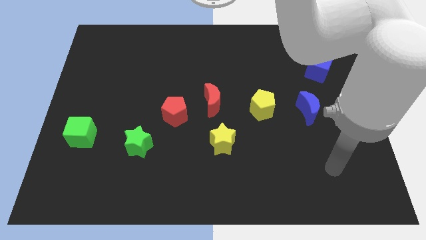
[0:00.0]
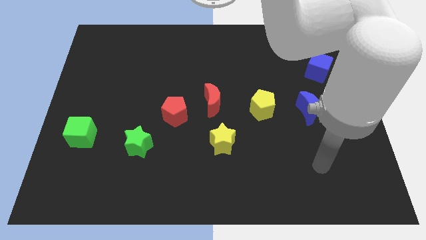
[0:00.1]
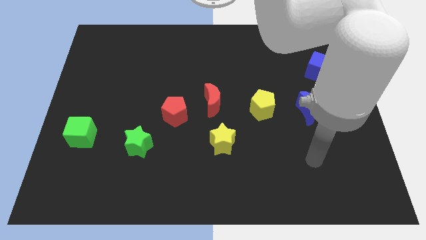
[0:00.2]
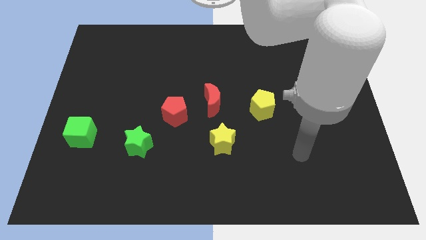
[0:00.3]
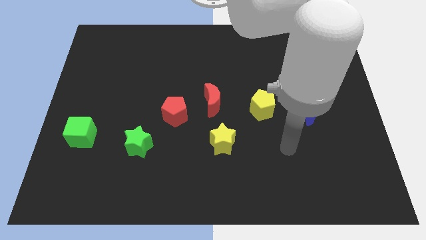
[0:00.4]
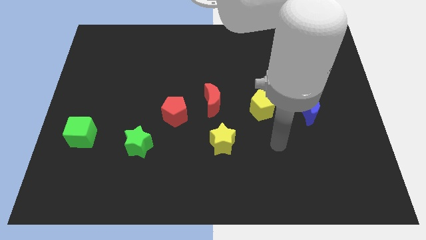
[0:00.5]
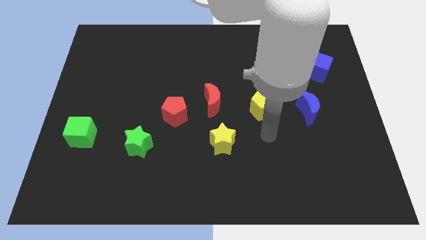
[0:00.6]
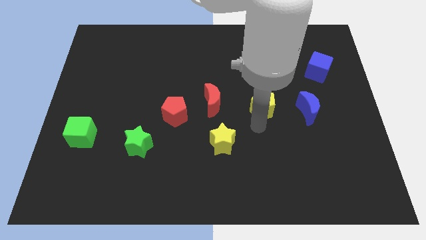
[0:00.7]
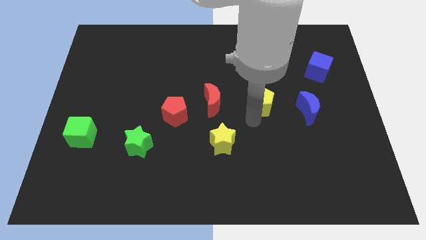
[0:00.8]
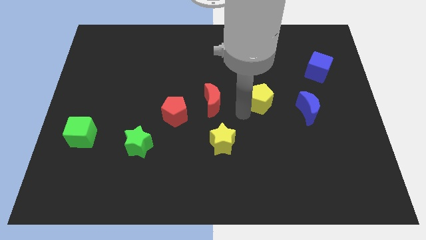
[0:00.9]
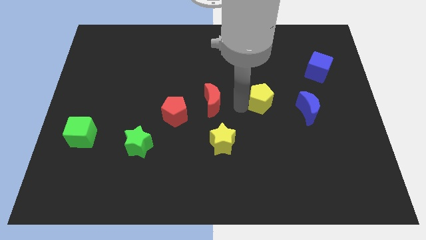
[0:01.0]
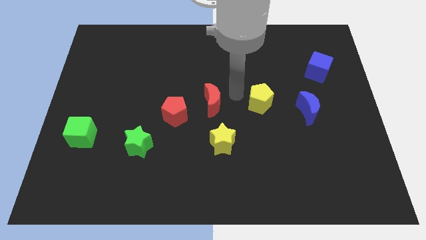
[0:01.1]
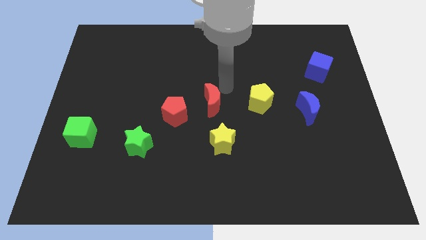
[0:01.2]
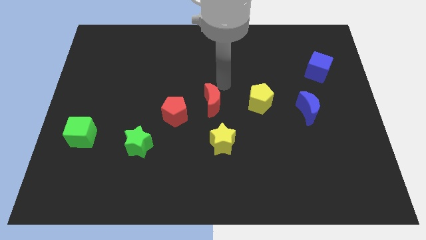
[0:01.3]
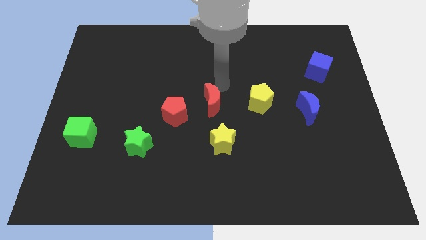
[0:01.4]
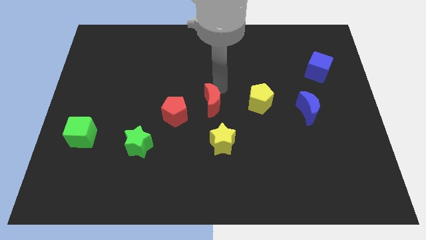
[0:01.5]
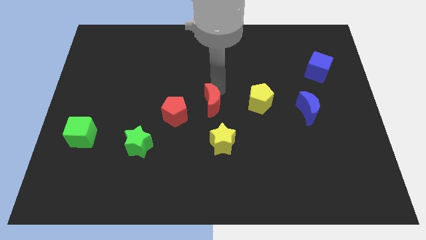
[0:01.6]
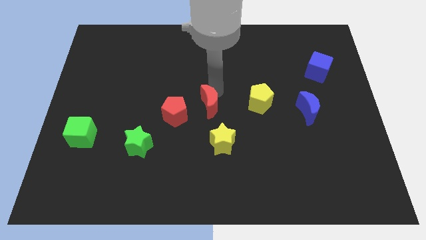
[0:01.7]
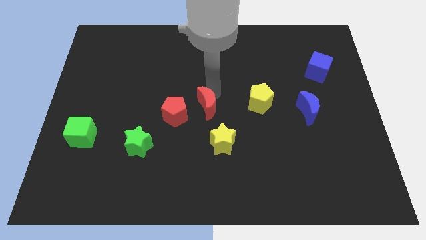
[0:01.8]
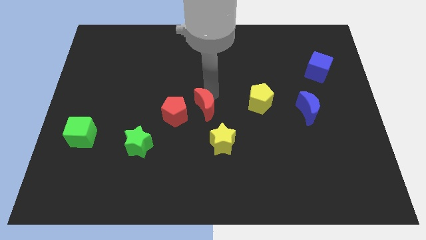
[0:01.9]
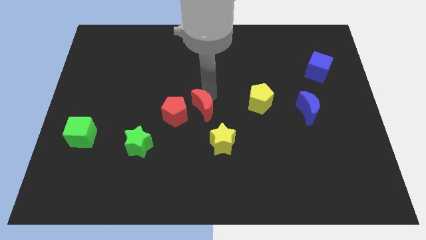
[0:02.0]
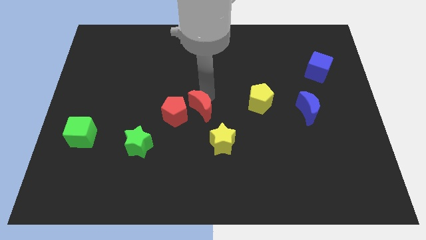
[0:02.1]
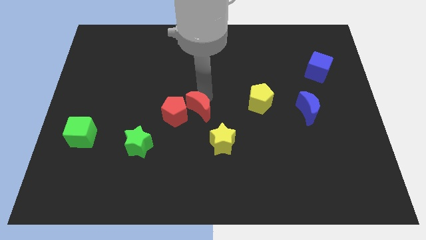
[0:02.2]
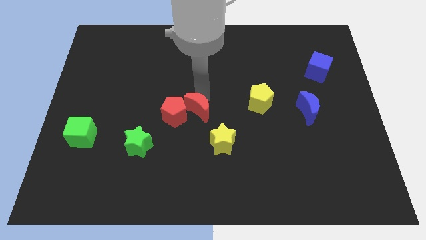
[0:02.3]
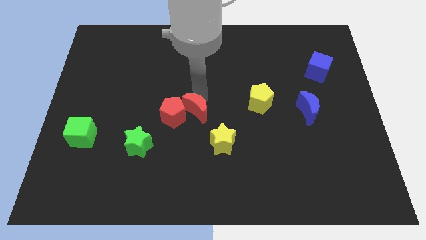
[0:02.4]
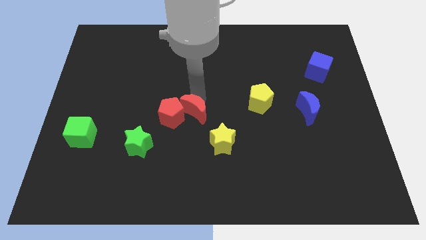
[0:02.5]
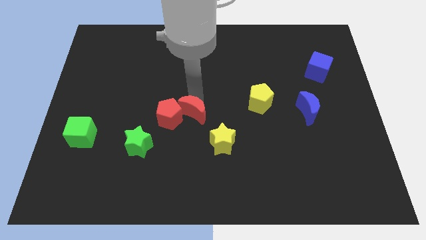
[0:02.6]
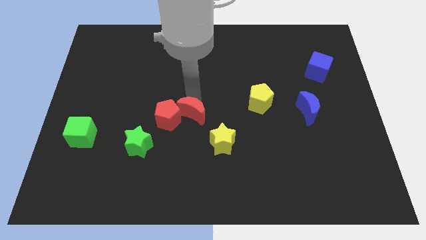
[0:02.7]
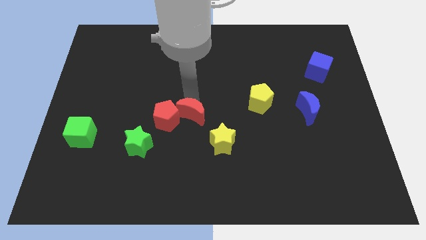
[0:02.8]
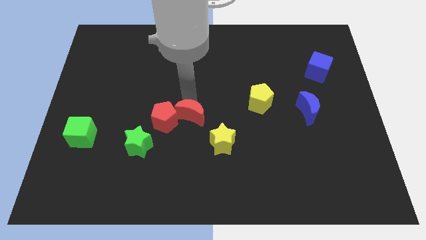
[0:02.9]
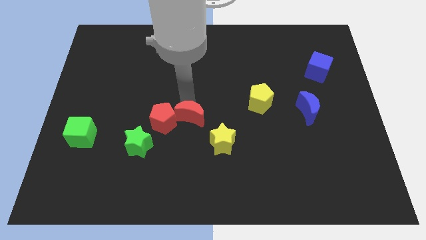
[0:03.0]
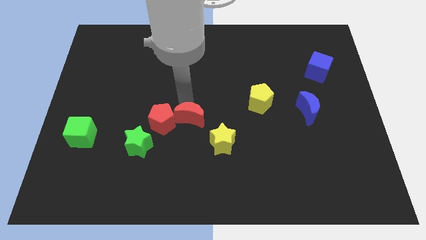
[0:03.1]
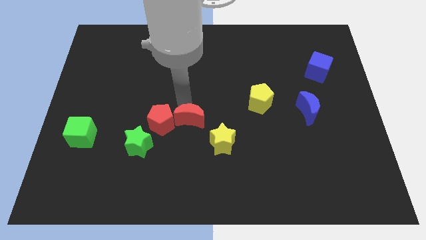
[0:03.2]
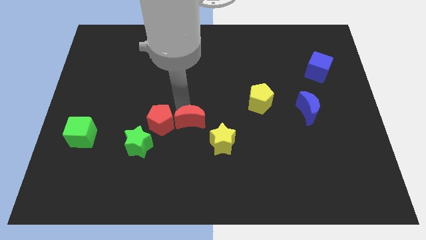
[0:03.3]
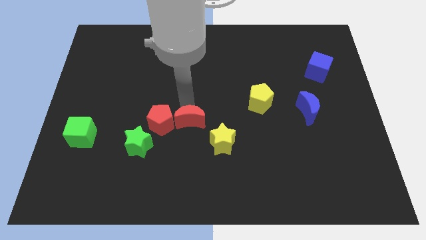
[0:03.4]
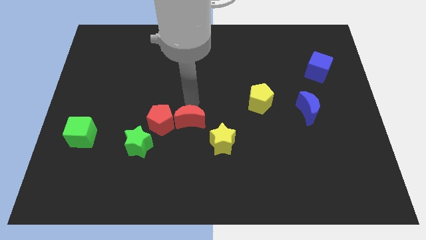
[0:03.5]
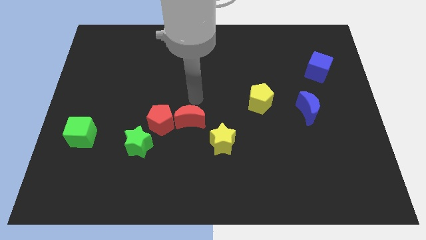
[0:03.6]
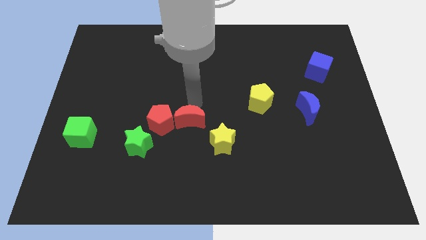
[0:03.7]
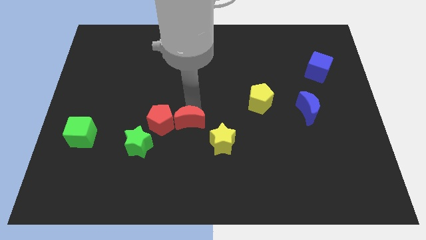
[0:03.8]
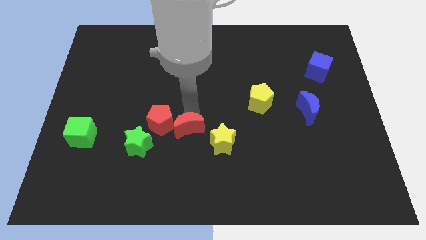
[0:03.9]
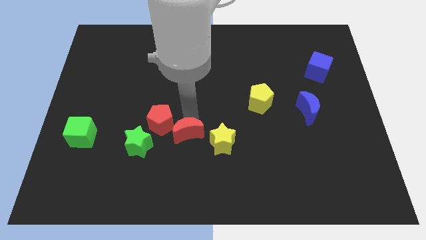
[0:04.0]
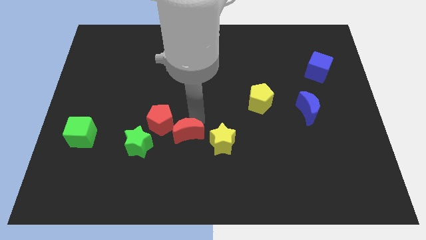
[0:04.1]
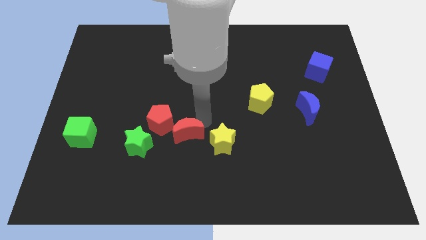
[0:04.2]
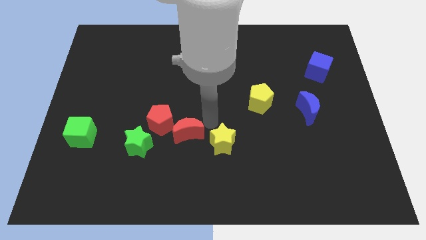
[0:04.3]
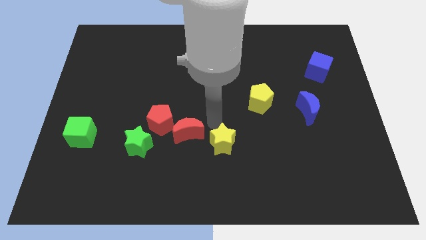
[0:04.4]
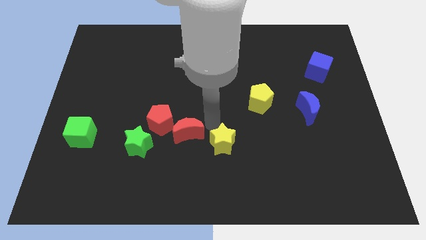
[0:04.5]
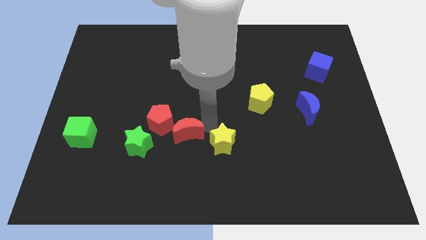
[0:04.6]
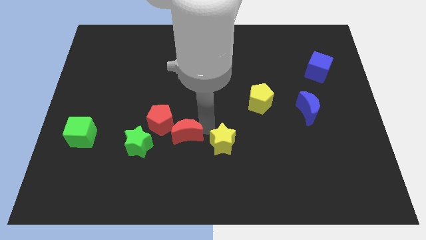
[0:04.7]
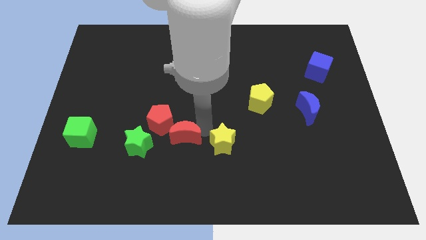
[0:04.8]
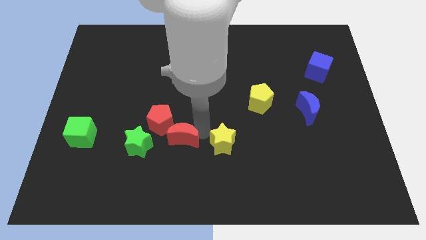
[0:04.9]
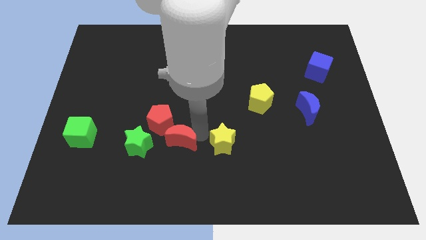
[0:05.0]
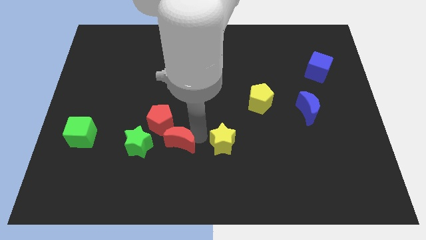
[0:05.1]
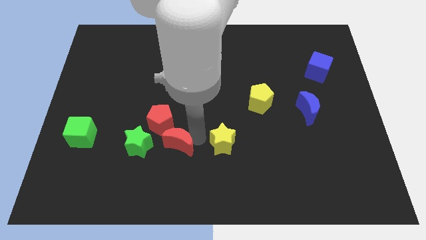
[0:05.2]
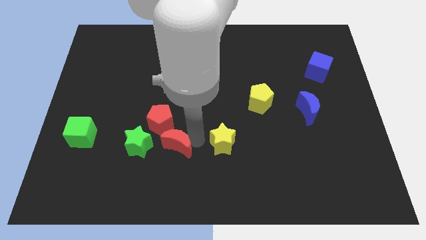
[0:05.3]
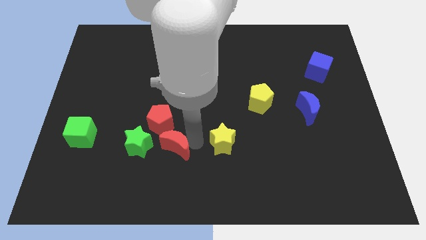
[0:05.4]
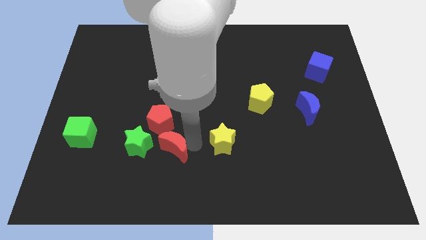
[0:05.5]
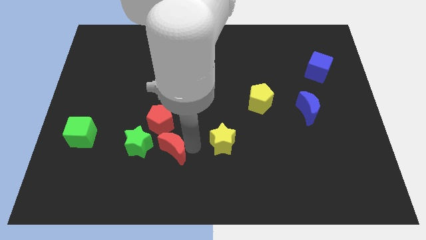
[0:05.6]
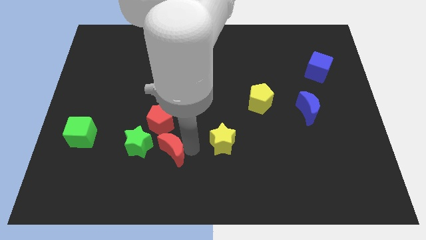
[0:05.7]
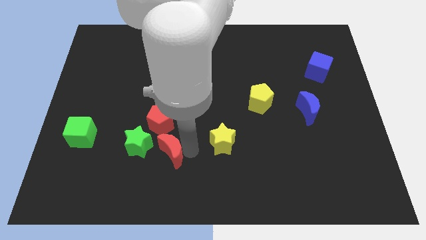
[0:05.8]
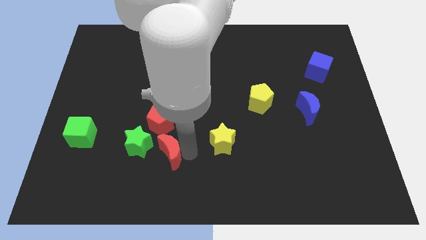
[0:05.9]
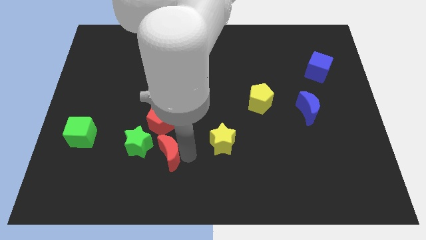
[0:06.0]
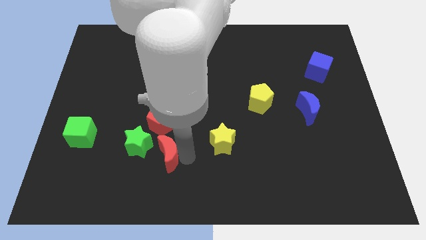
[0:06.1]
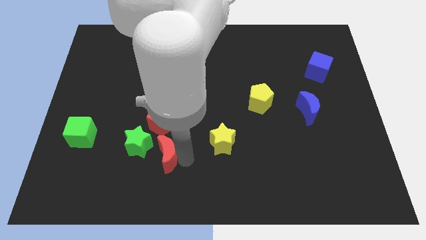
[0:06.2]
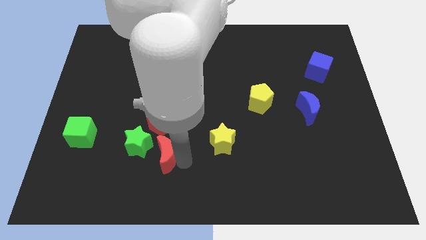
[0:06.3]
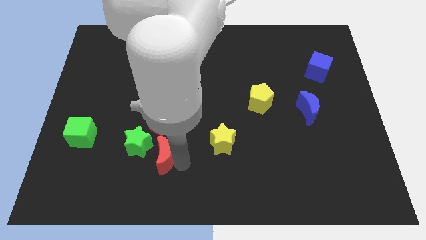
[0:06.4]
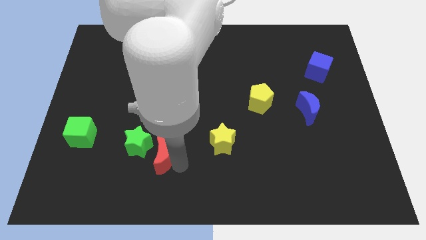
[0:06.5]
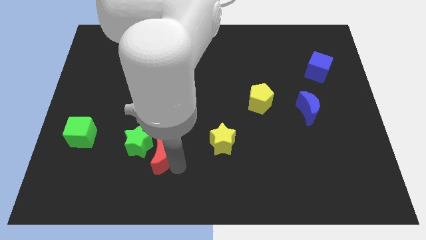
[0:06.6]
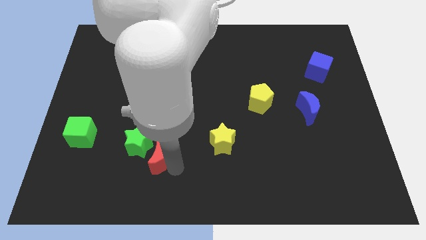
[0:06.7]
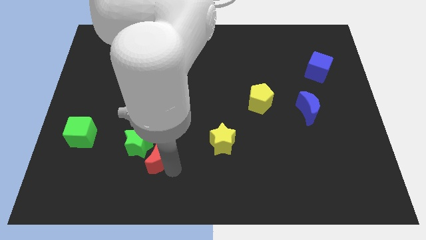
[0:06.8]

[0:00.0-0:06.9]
slide the red moon close to the green star

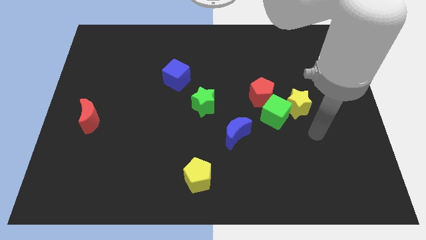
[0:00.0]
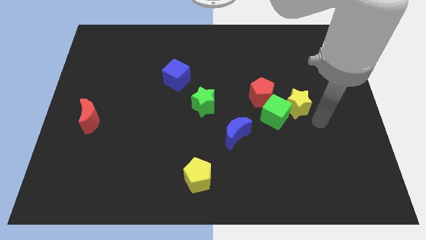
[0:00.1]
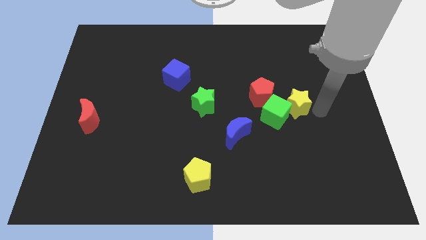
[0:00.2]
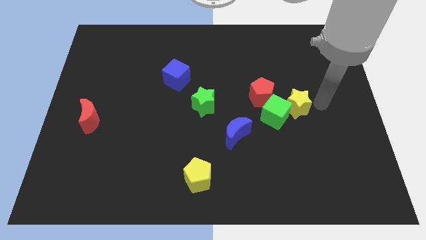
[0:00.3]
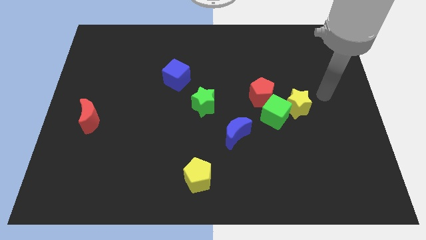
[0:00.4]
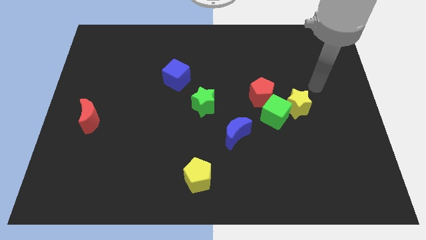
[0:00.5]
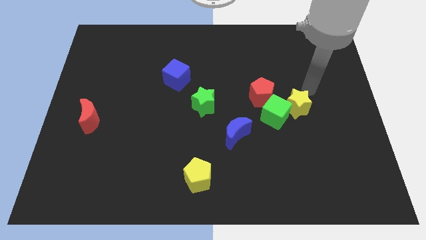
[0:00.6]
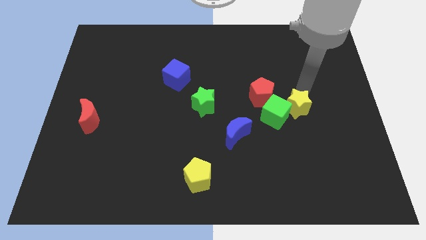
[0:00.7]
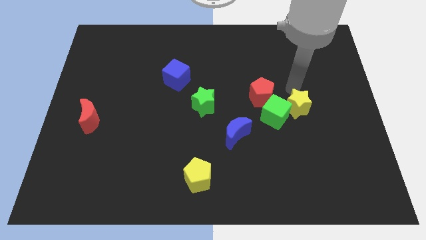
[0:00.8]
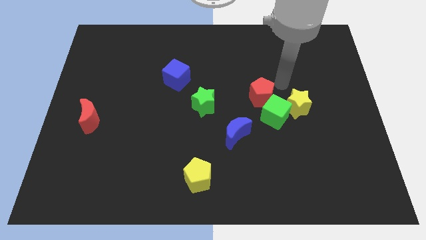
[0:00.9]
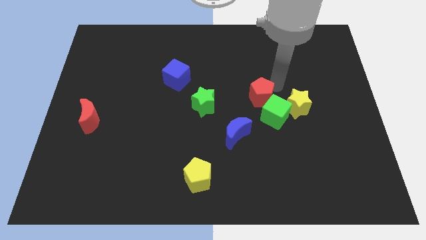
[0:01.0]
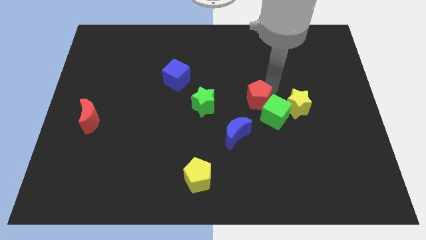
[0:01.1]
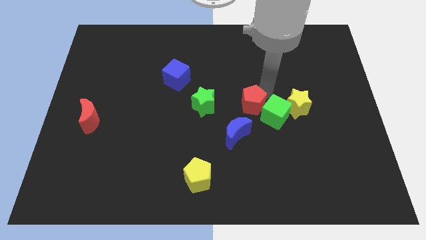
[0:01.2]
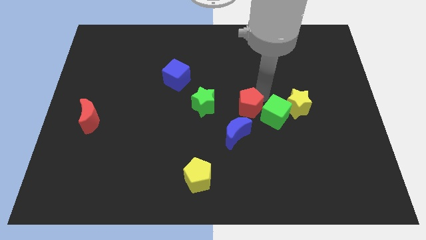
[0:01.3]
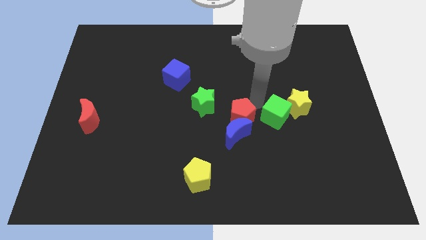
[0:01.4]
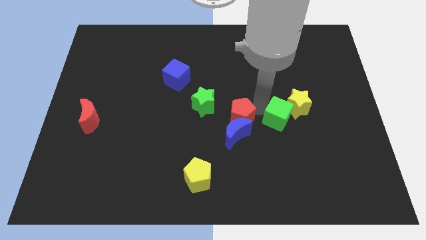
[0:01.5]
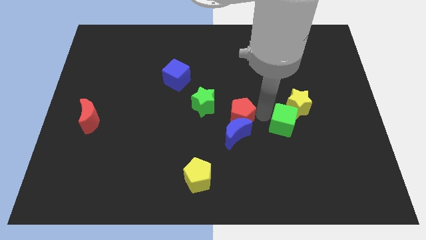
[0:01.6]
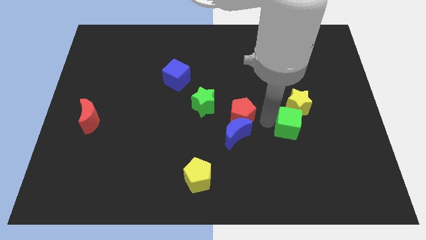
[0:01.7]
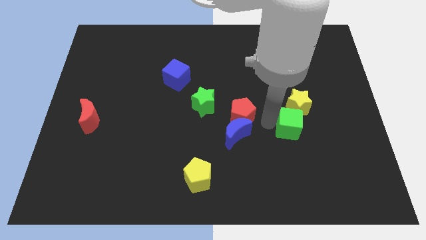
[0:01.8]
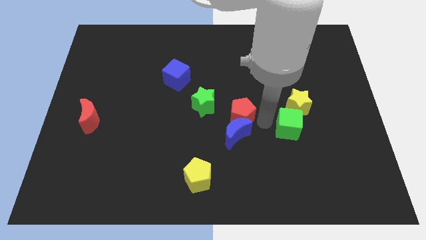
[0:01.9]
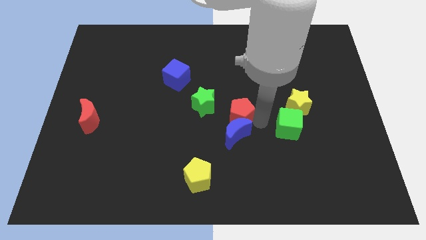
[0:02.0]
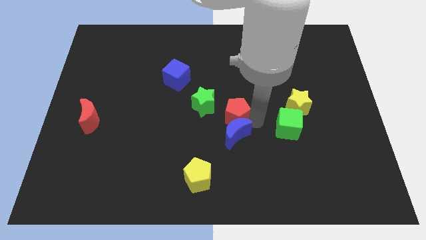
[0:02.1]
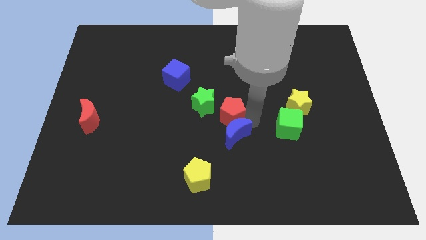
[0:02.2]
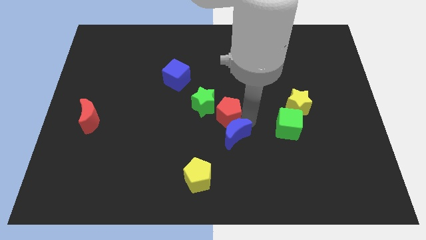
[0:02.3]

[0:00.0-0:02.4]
put the red pentagon close to the green star
